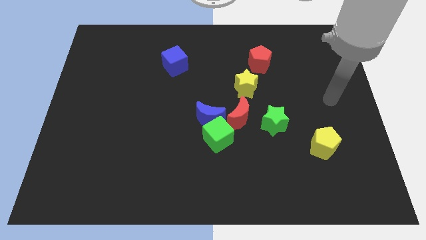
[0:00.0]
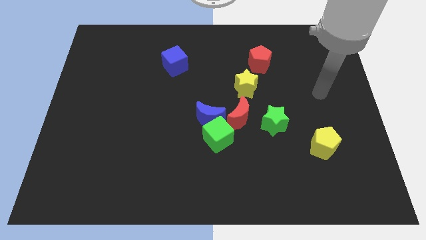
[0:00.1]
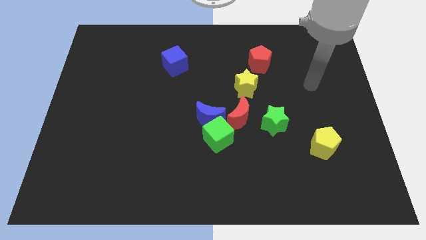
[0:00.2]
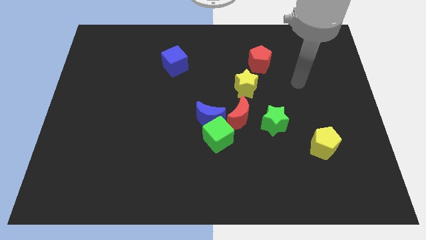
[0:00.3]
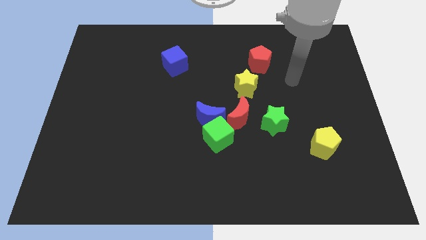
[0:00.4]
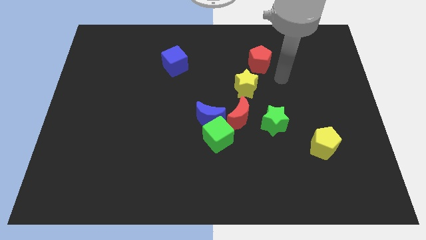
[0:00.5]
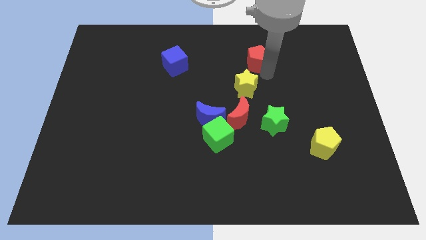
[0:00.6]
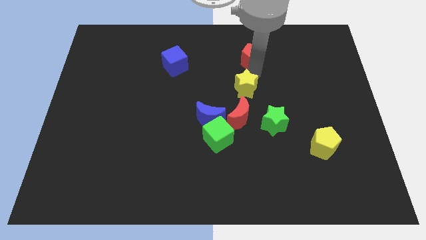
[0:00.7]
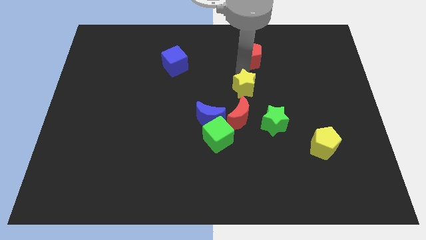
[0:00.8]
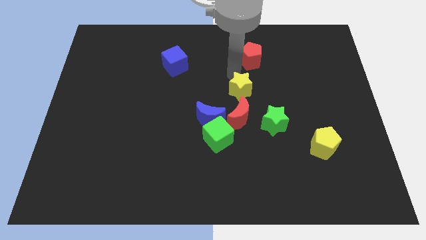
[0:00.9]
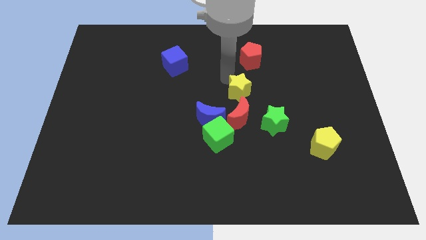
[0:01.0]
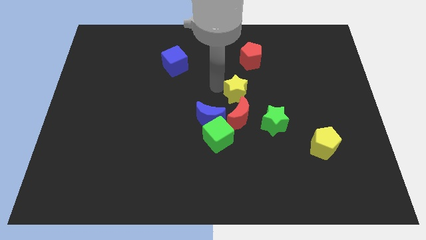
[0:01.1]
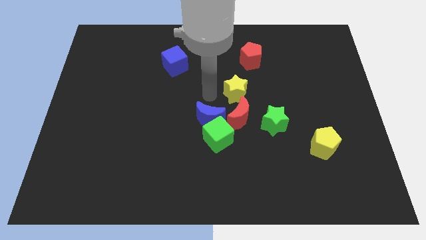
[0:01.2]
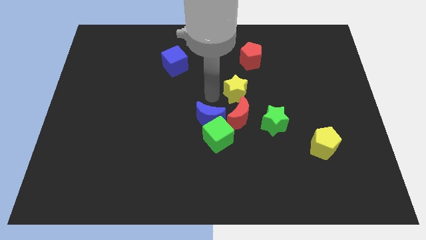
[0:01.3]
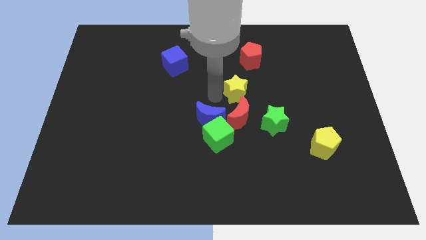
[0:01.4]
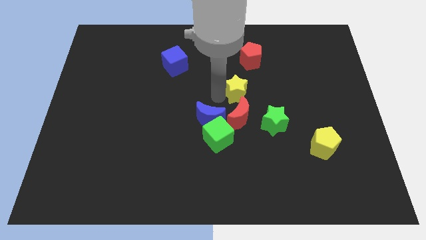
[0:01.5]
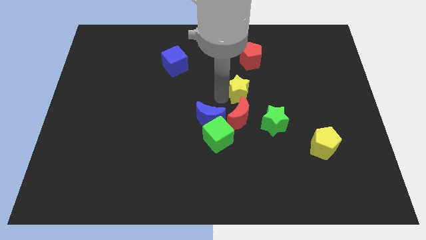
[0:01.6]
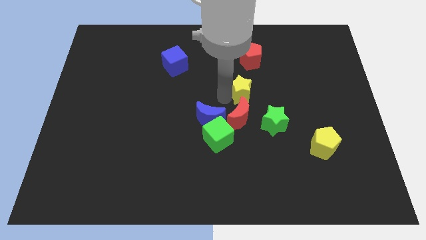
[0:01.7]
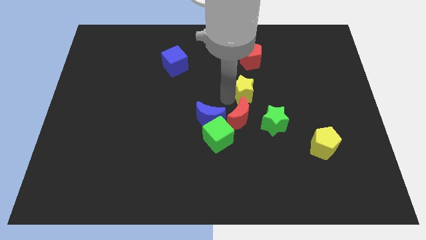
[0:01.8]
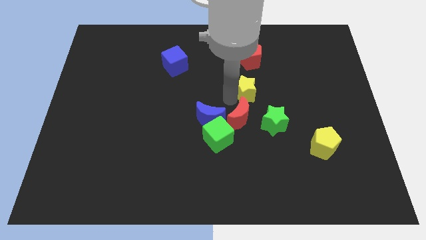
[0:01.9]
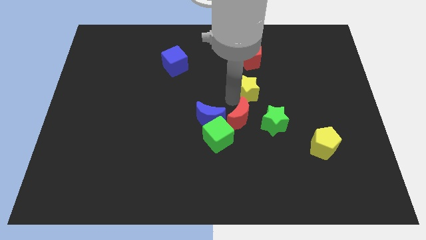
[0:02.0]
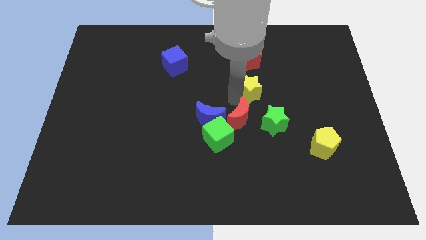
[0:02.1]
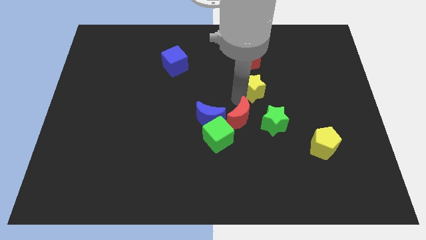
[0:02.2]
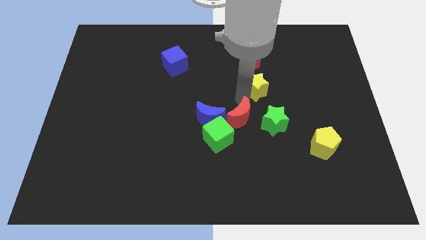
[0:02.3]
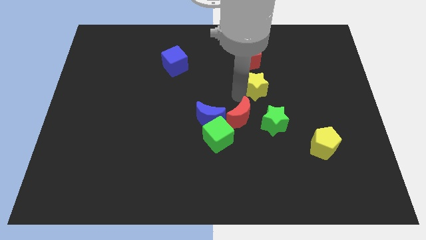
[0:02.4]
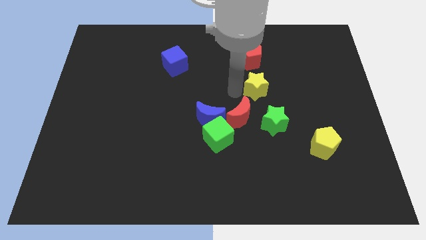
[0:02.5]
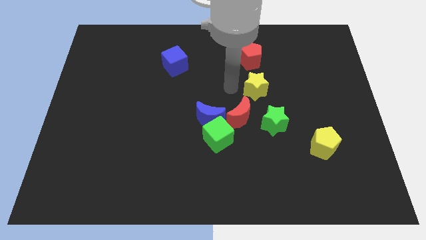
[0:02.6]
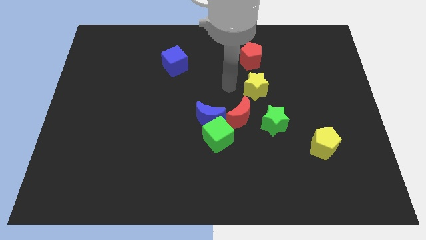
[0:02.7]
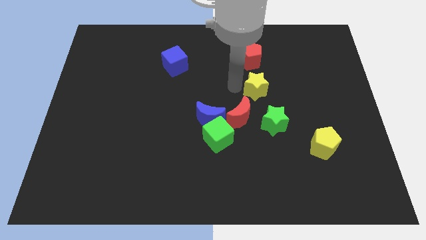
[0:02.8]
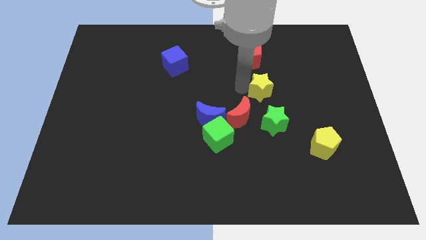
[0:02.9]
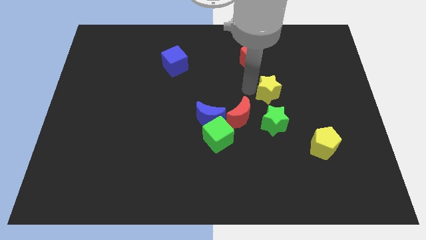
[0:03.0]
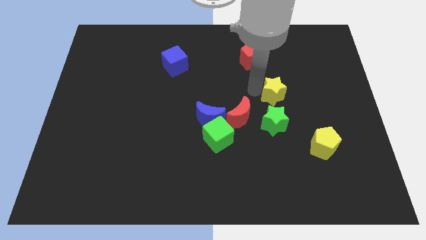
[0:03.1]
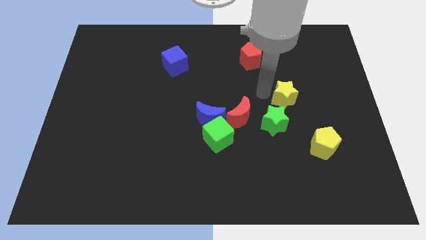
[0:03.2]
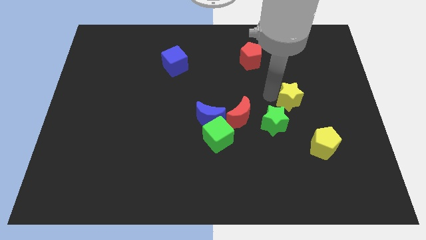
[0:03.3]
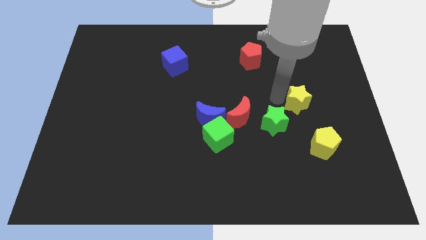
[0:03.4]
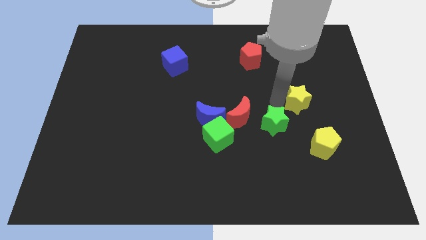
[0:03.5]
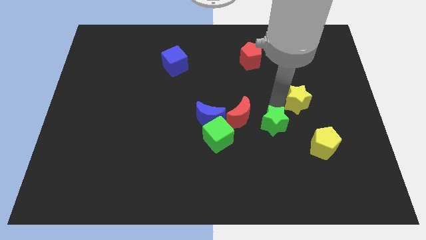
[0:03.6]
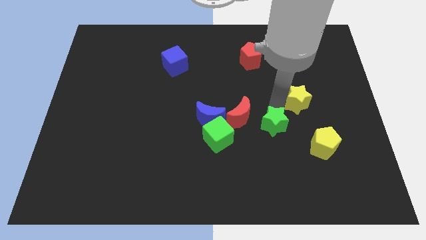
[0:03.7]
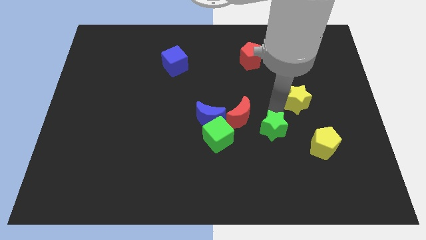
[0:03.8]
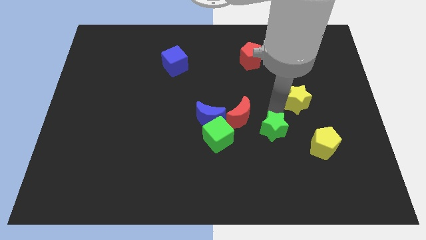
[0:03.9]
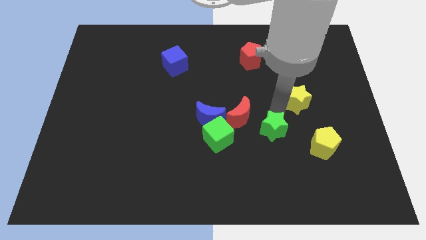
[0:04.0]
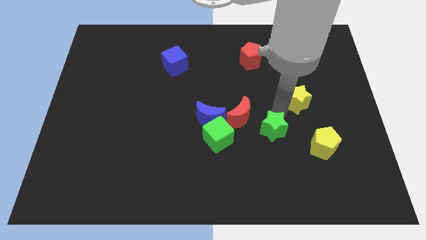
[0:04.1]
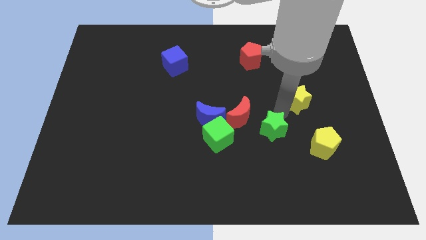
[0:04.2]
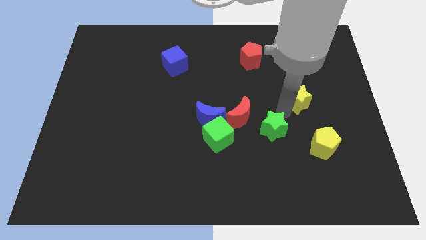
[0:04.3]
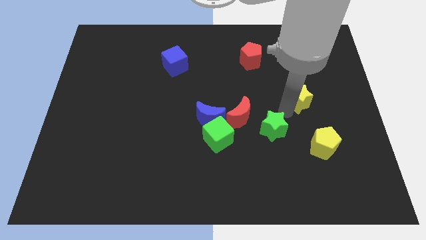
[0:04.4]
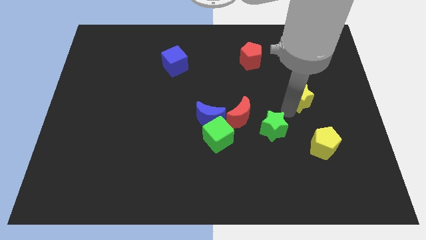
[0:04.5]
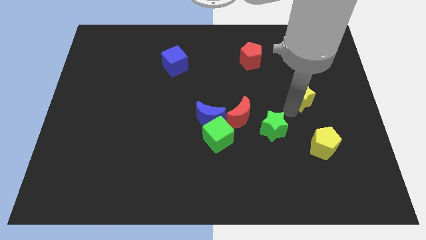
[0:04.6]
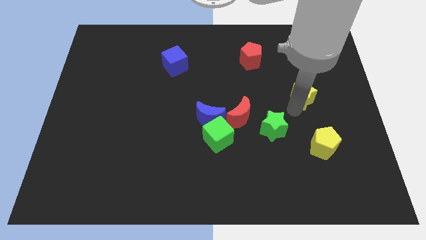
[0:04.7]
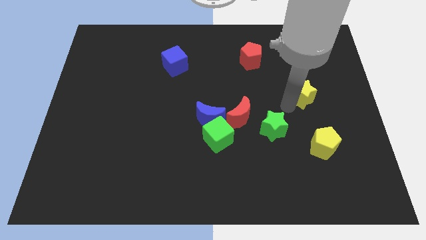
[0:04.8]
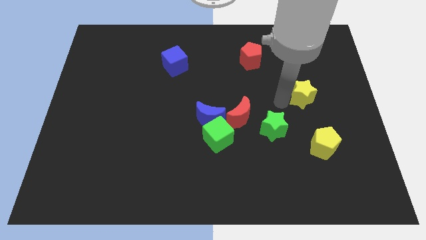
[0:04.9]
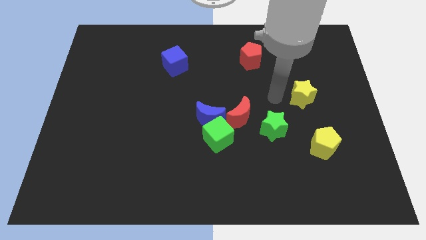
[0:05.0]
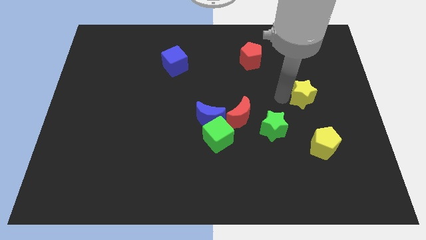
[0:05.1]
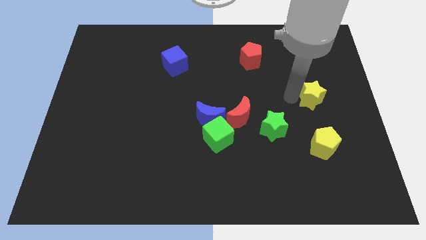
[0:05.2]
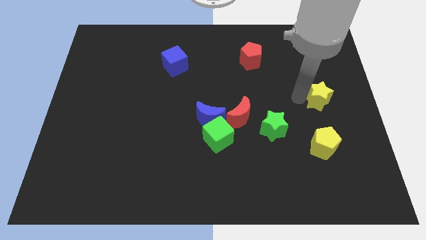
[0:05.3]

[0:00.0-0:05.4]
slide the yellow star to the right side
